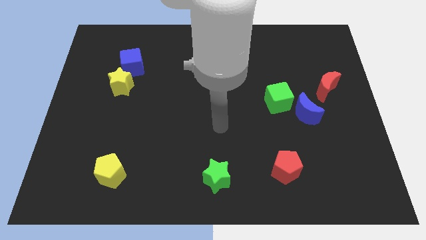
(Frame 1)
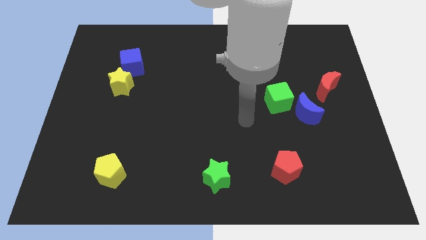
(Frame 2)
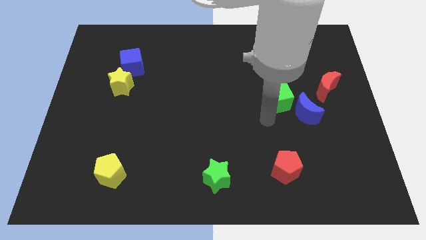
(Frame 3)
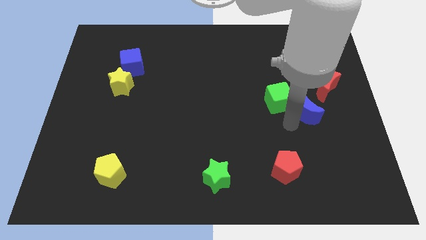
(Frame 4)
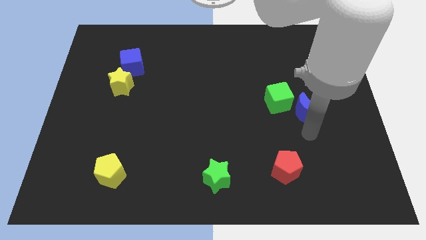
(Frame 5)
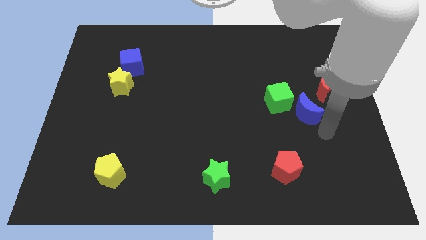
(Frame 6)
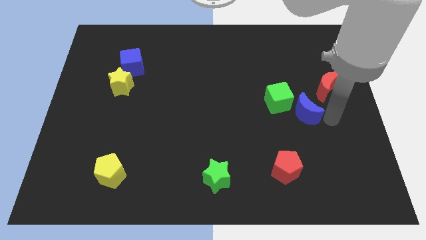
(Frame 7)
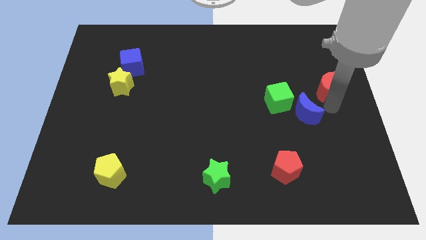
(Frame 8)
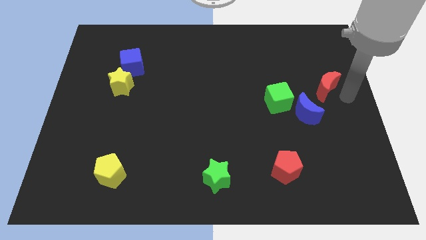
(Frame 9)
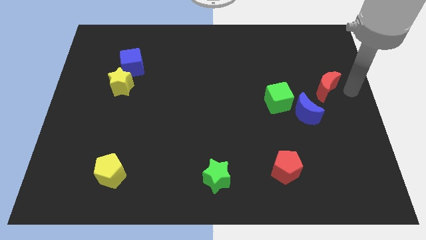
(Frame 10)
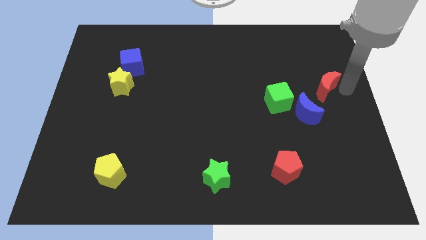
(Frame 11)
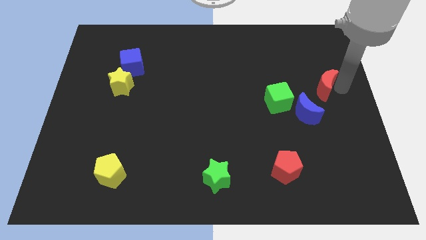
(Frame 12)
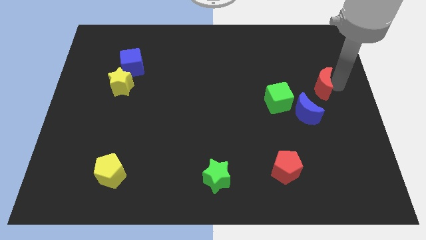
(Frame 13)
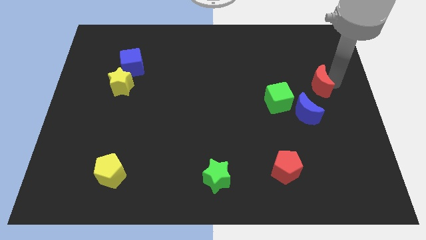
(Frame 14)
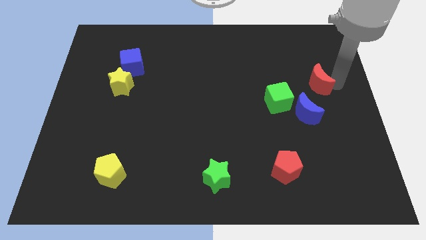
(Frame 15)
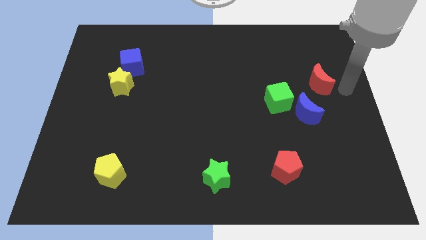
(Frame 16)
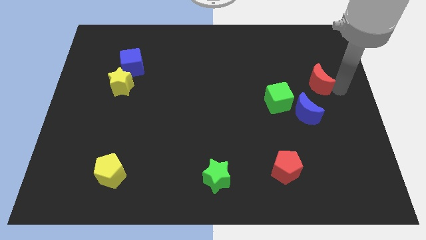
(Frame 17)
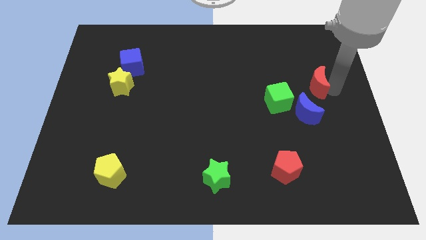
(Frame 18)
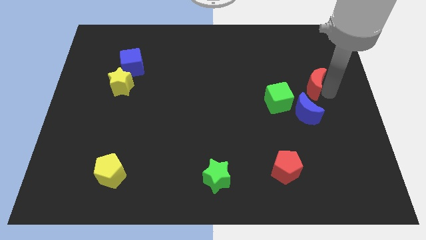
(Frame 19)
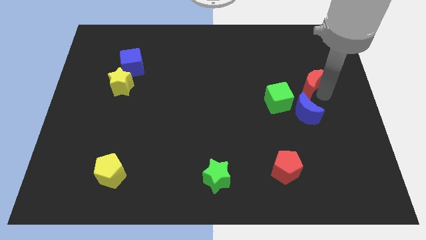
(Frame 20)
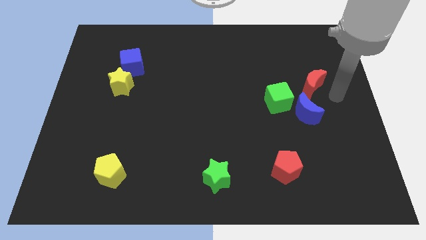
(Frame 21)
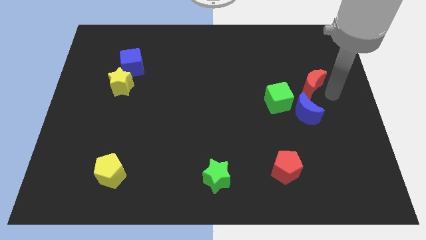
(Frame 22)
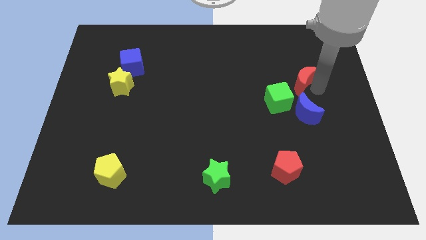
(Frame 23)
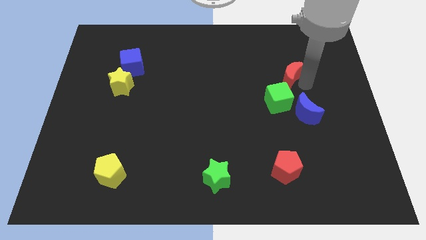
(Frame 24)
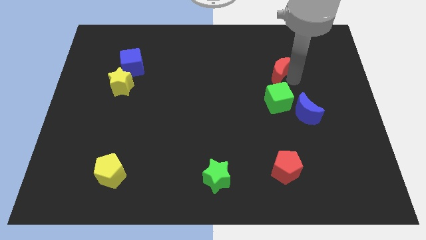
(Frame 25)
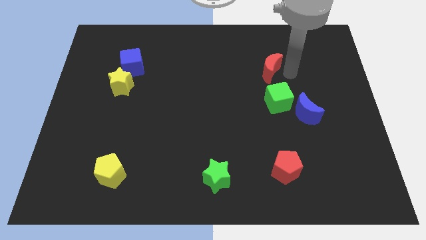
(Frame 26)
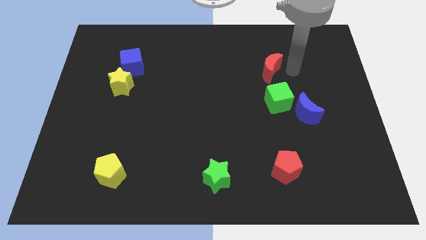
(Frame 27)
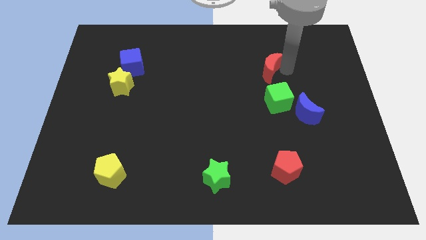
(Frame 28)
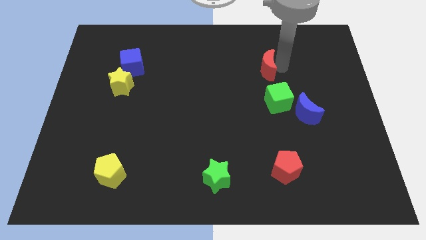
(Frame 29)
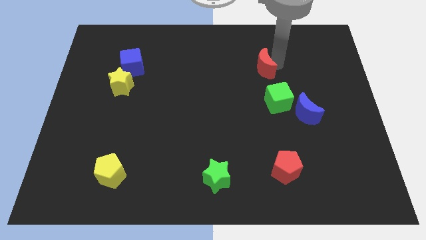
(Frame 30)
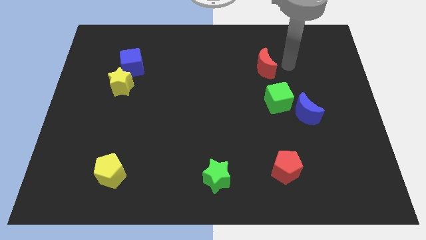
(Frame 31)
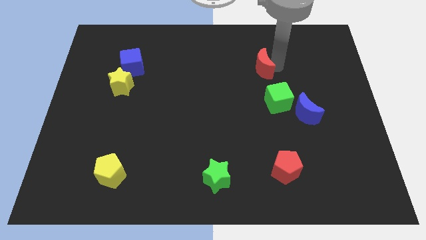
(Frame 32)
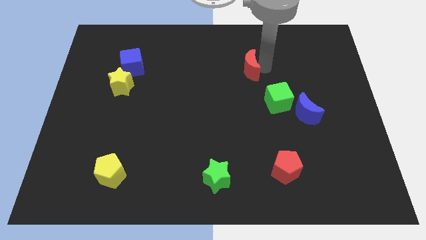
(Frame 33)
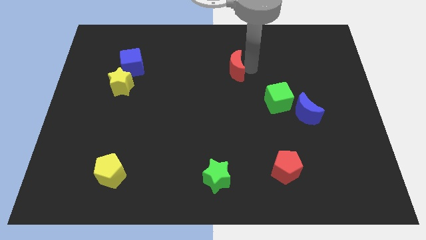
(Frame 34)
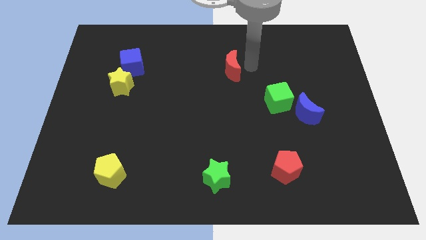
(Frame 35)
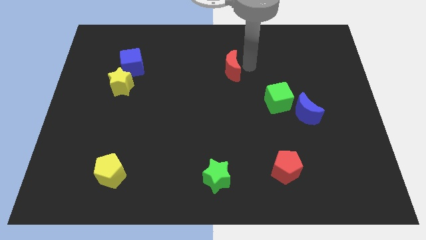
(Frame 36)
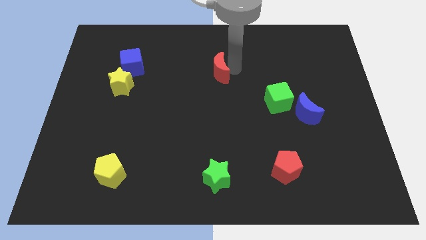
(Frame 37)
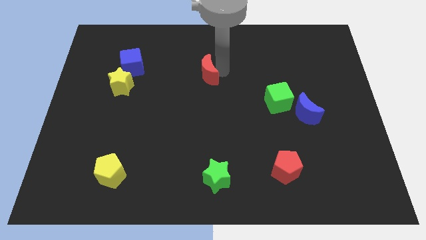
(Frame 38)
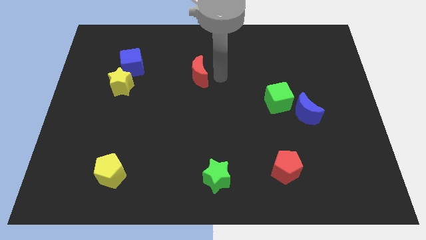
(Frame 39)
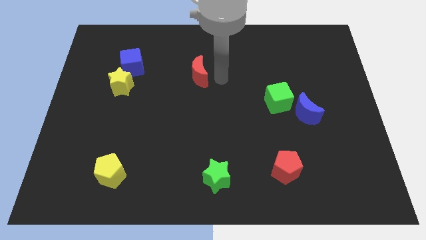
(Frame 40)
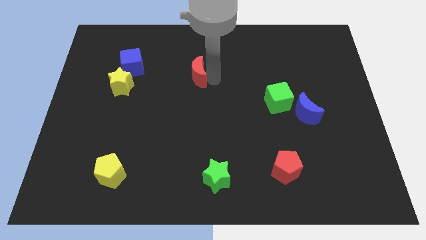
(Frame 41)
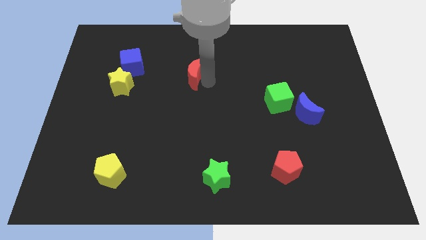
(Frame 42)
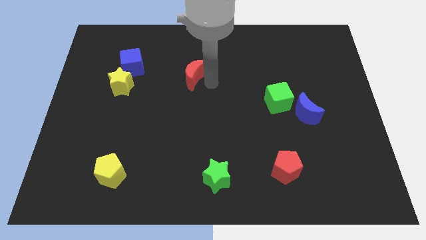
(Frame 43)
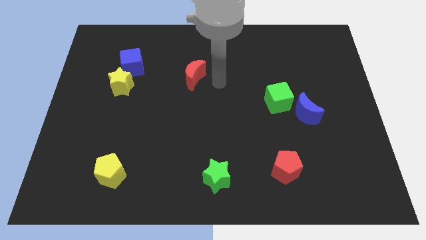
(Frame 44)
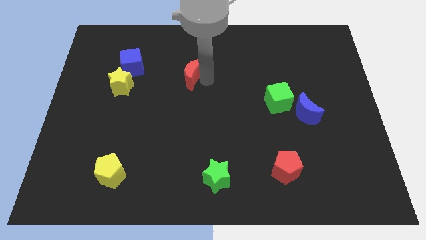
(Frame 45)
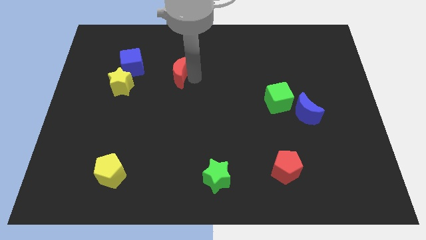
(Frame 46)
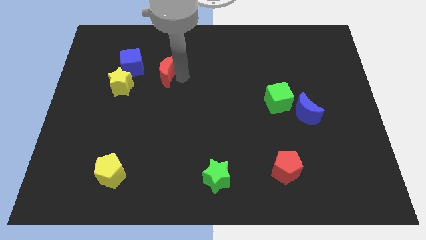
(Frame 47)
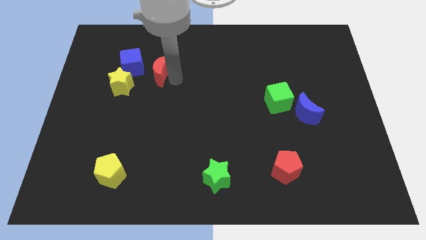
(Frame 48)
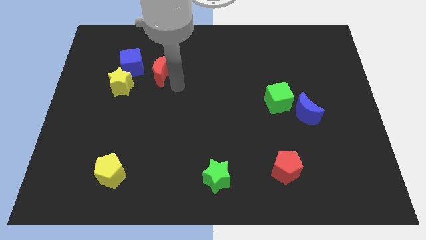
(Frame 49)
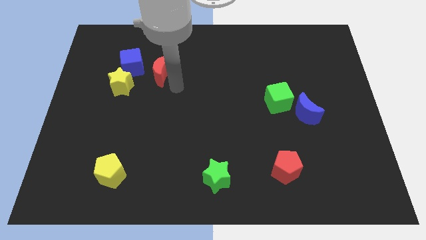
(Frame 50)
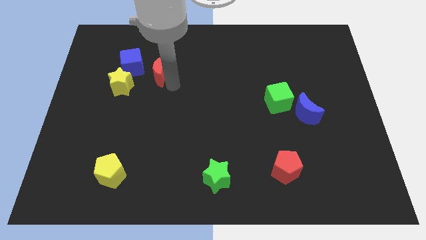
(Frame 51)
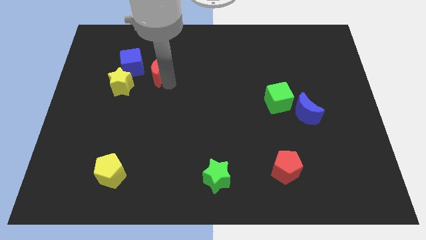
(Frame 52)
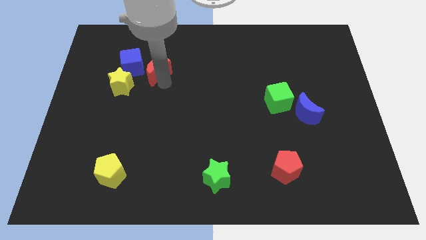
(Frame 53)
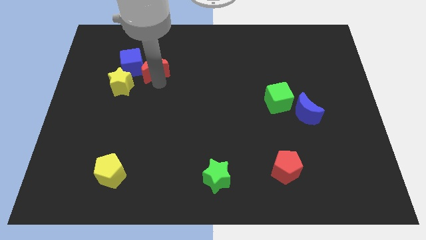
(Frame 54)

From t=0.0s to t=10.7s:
slide the red moon towards the blue cube

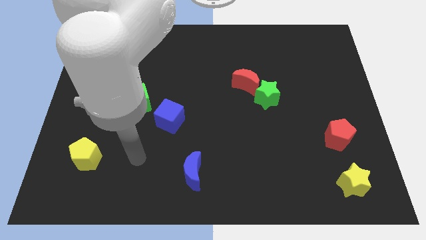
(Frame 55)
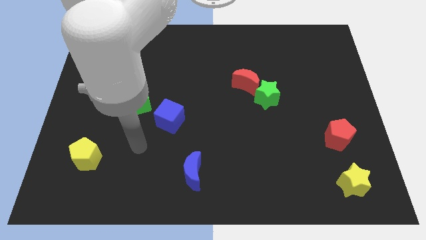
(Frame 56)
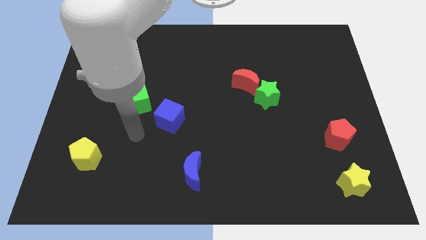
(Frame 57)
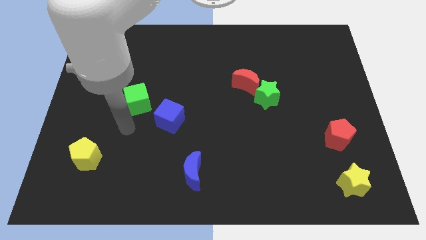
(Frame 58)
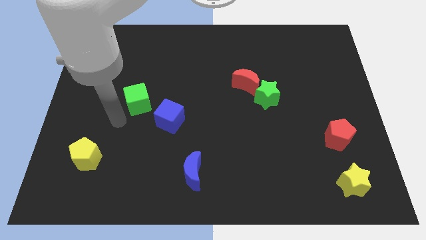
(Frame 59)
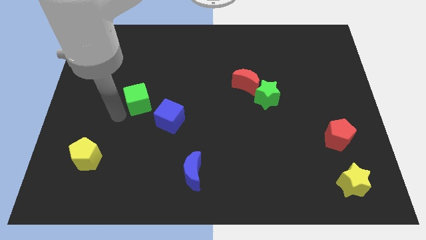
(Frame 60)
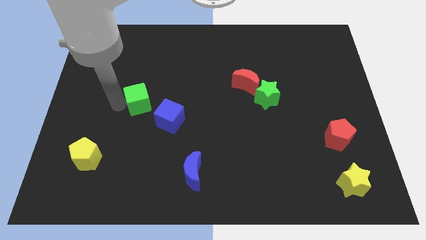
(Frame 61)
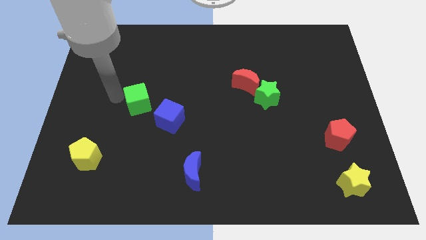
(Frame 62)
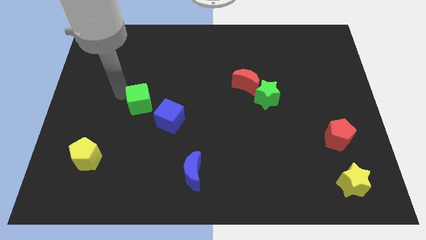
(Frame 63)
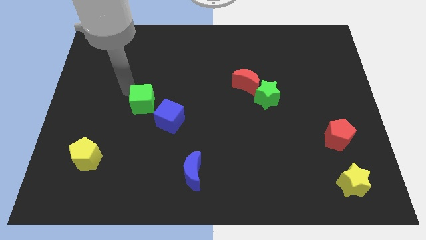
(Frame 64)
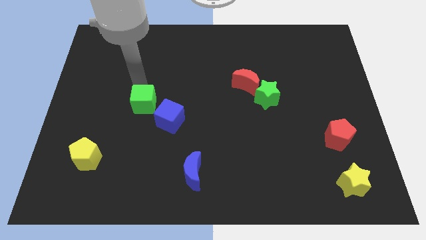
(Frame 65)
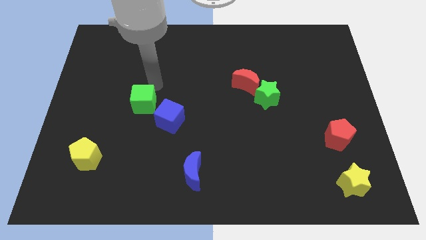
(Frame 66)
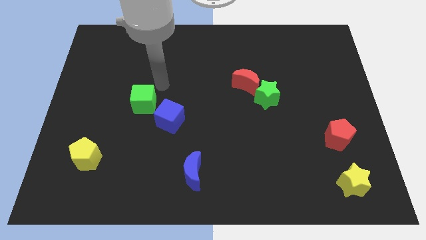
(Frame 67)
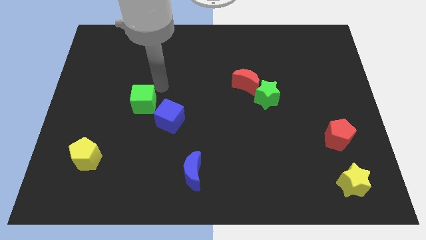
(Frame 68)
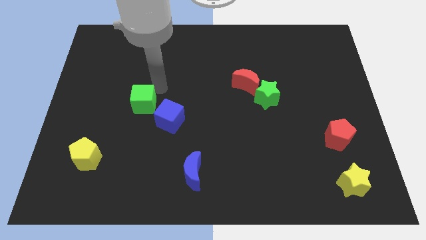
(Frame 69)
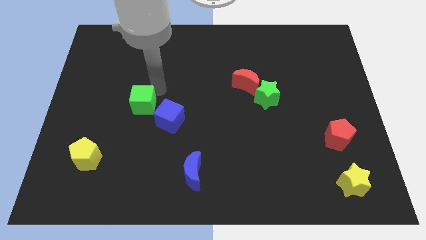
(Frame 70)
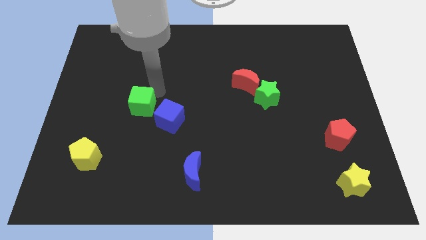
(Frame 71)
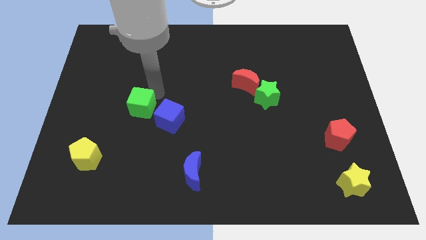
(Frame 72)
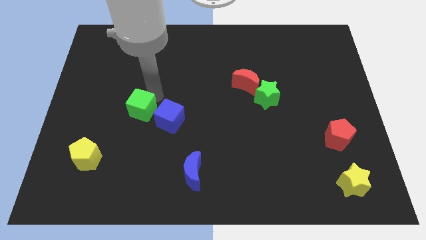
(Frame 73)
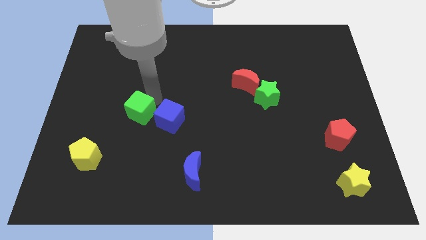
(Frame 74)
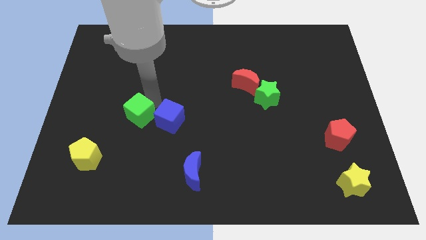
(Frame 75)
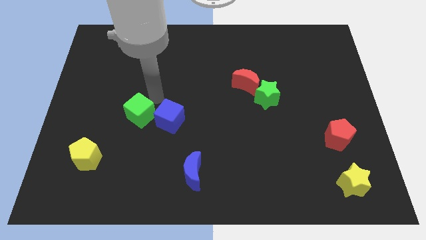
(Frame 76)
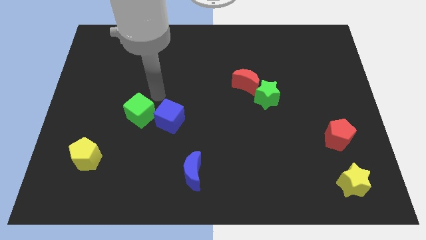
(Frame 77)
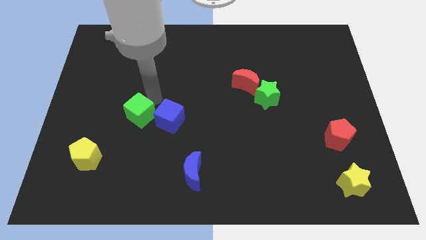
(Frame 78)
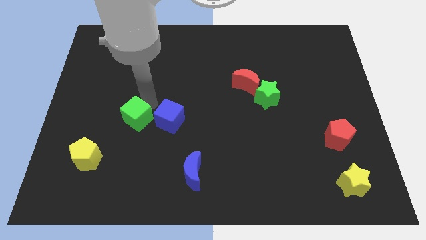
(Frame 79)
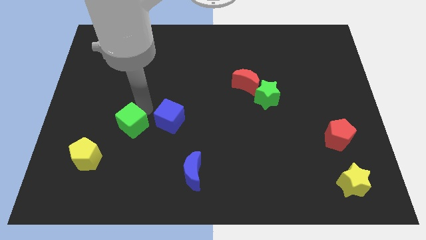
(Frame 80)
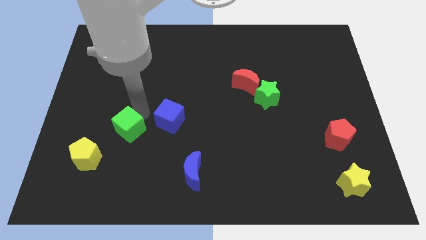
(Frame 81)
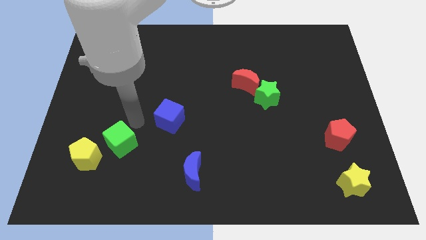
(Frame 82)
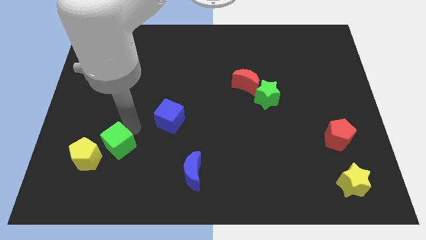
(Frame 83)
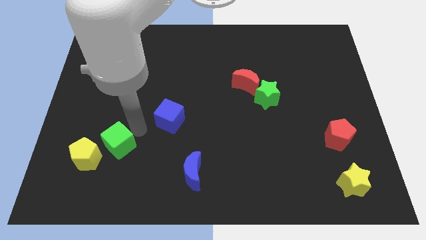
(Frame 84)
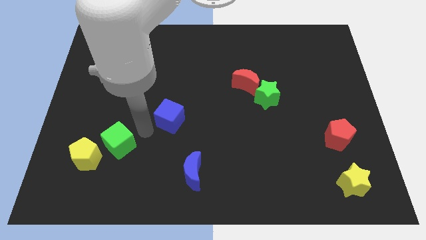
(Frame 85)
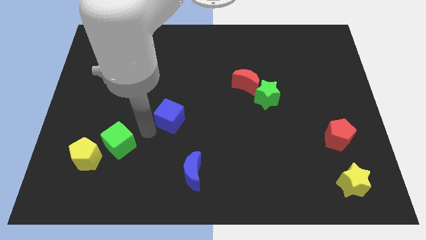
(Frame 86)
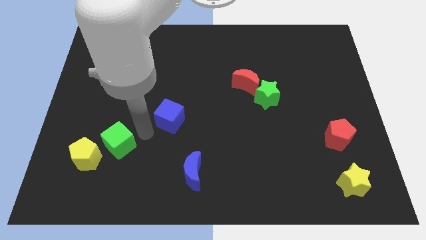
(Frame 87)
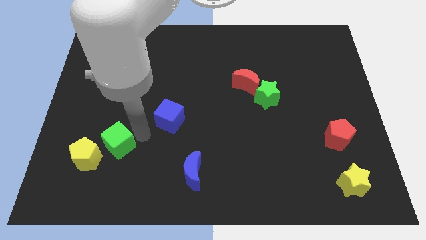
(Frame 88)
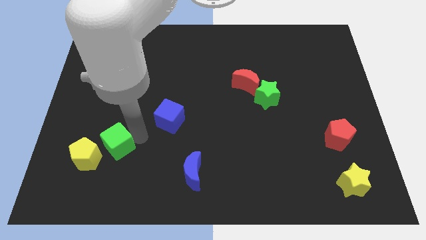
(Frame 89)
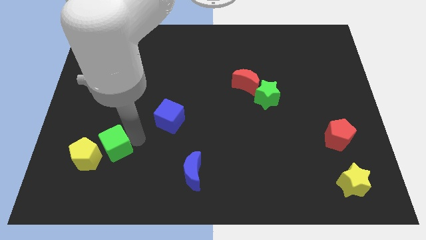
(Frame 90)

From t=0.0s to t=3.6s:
push the green cube towards the yellow pentagon
